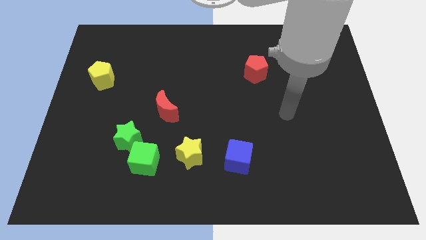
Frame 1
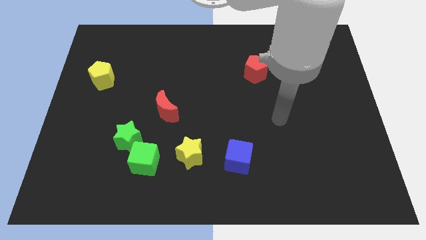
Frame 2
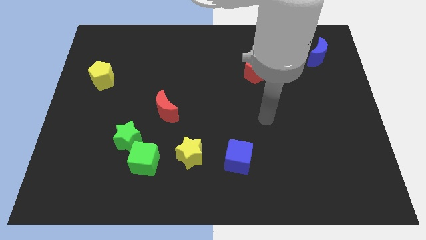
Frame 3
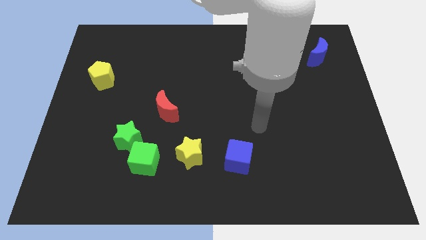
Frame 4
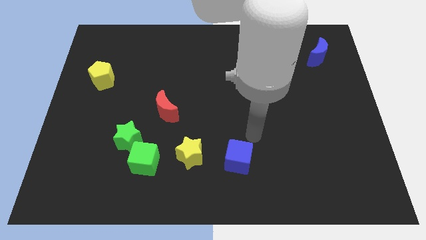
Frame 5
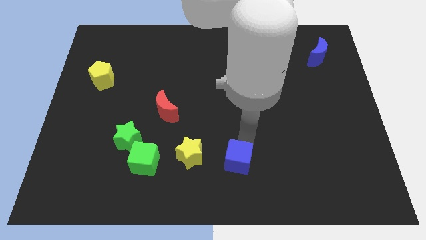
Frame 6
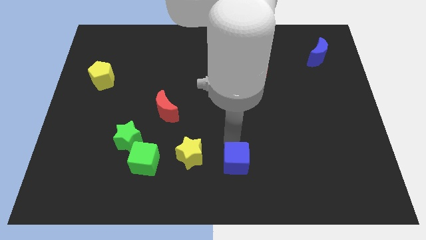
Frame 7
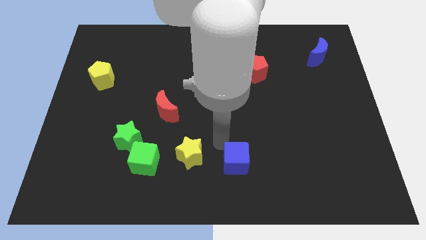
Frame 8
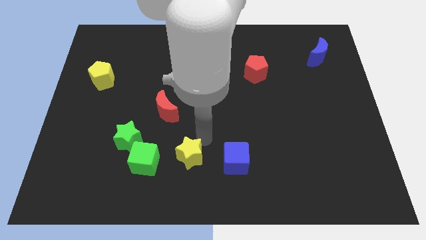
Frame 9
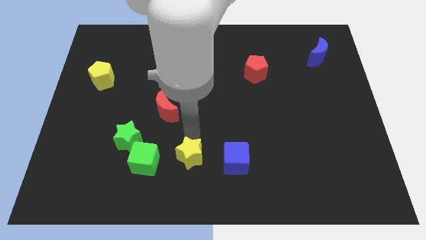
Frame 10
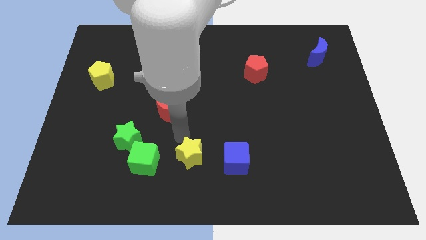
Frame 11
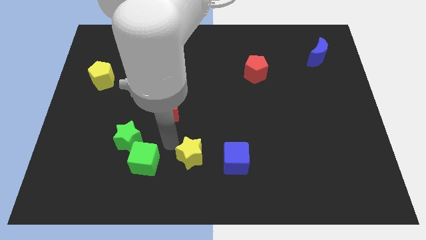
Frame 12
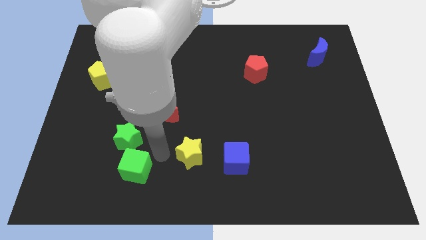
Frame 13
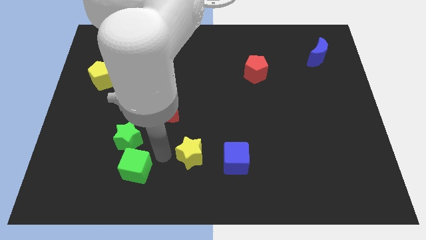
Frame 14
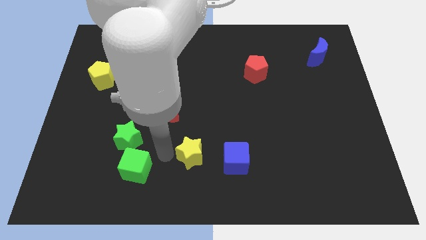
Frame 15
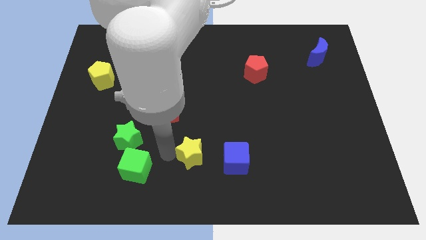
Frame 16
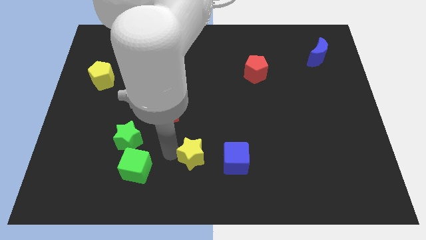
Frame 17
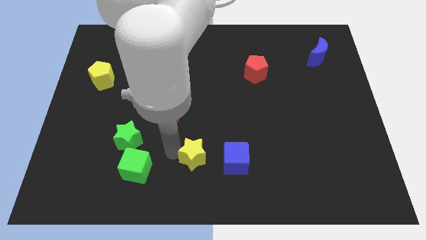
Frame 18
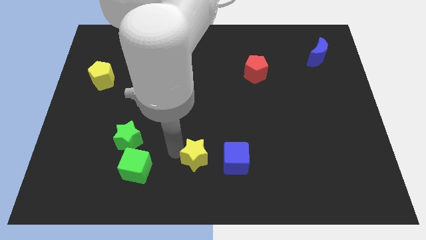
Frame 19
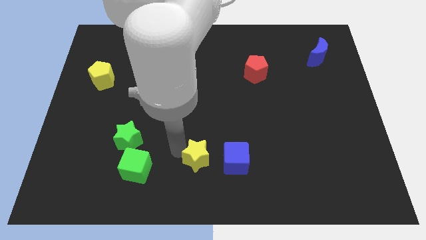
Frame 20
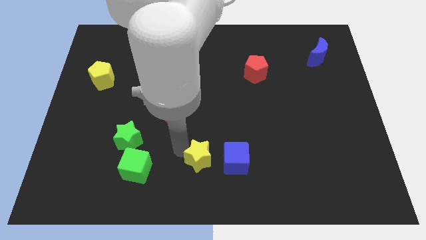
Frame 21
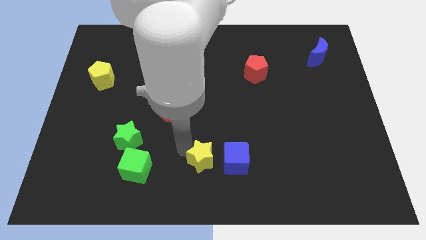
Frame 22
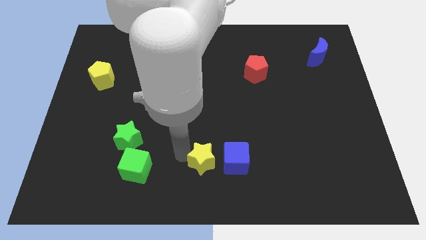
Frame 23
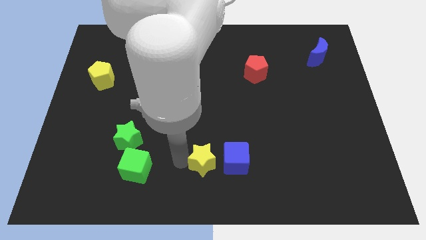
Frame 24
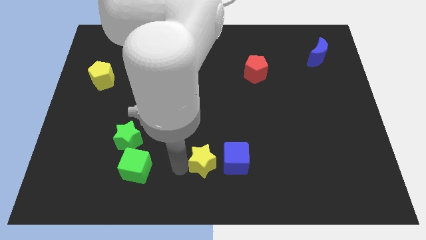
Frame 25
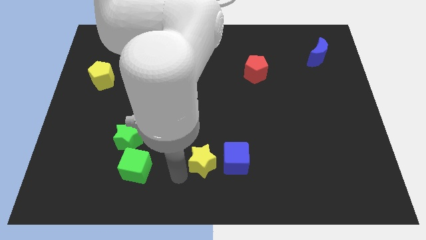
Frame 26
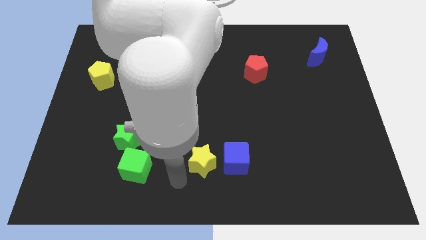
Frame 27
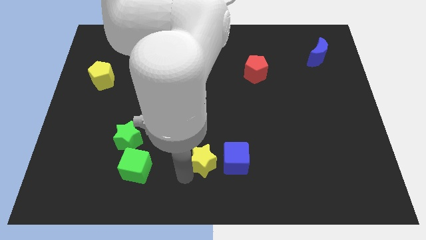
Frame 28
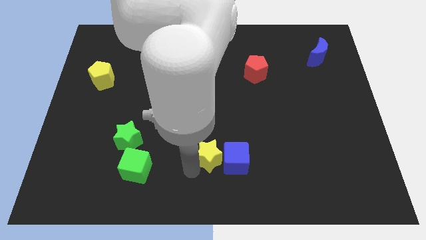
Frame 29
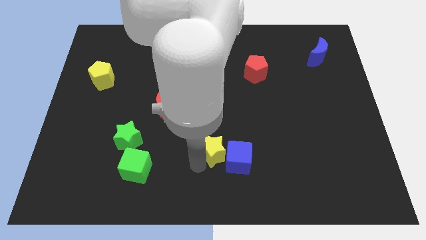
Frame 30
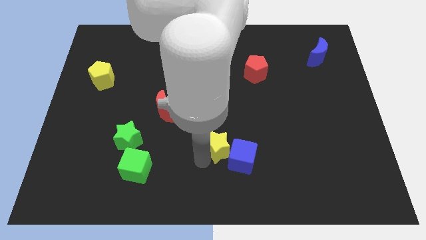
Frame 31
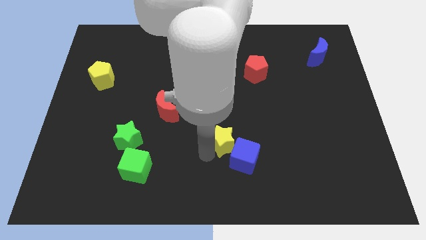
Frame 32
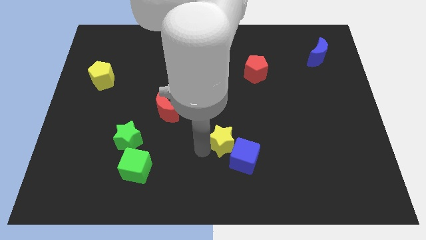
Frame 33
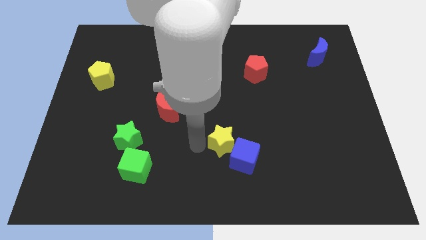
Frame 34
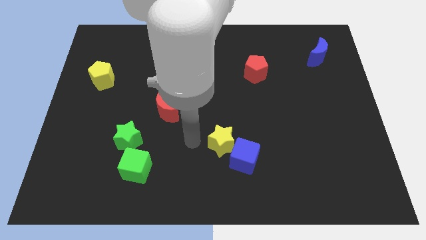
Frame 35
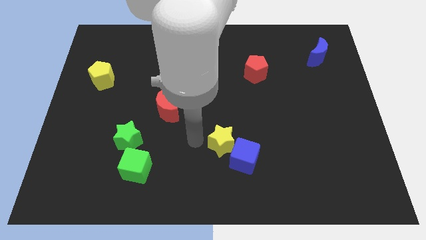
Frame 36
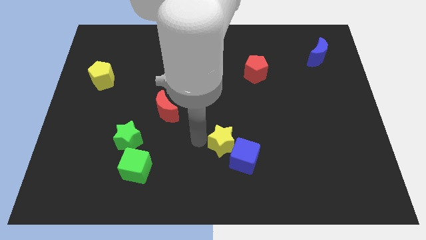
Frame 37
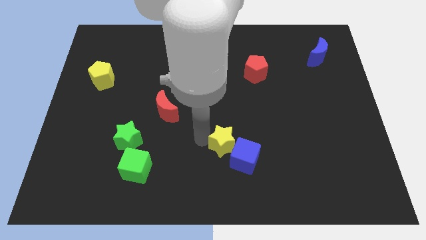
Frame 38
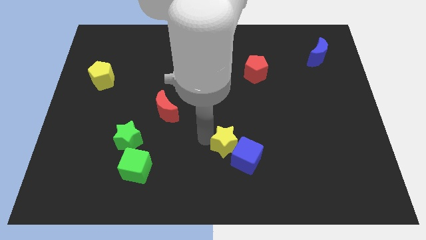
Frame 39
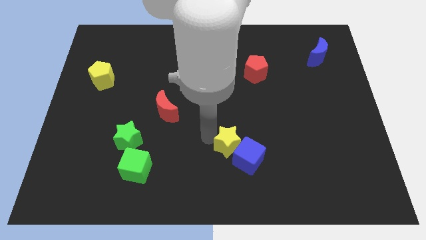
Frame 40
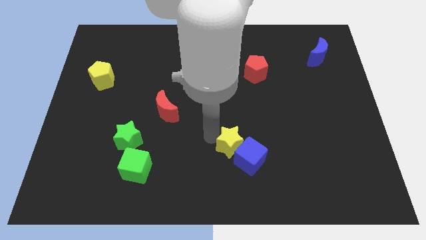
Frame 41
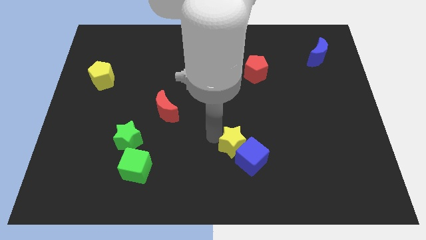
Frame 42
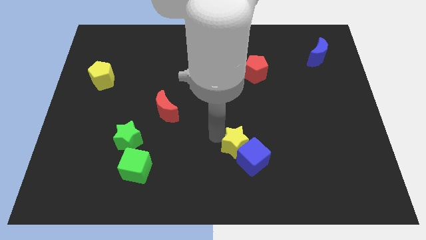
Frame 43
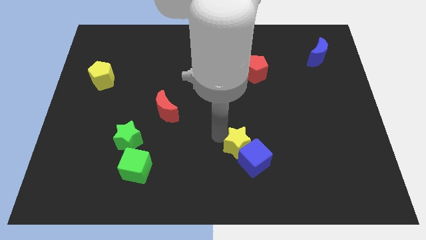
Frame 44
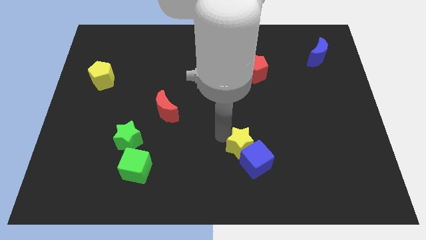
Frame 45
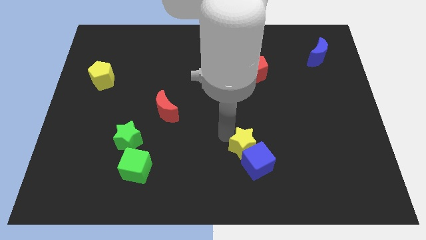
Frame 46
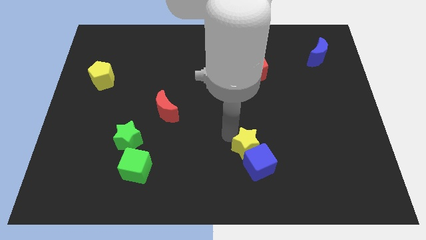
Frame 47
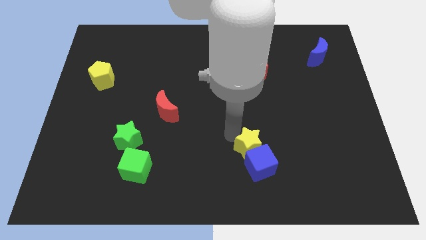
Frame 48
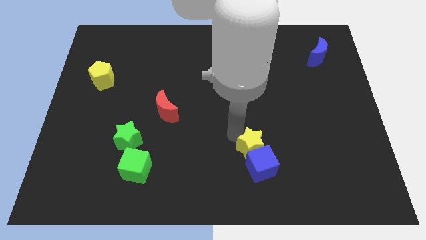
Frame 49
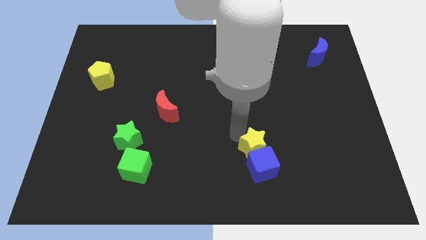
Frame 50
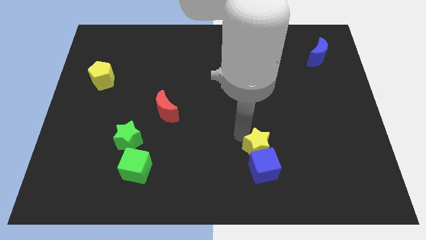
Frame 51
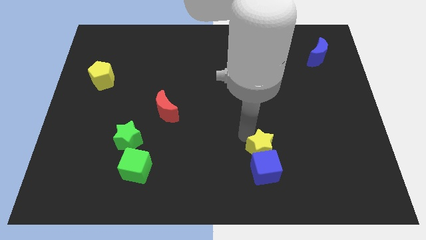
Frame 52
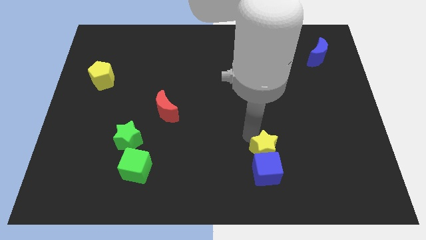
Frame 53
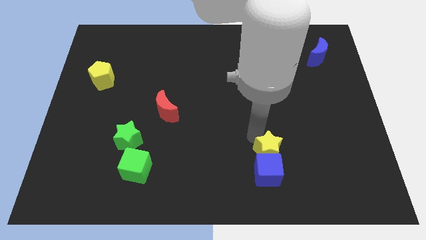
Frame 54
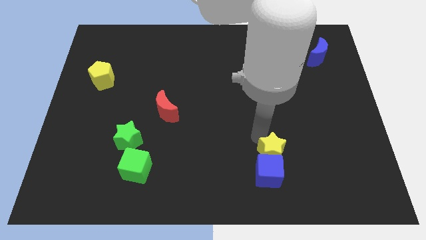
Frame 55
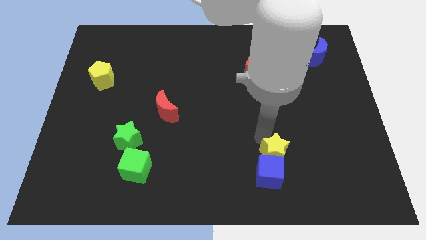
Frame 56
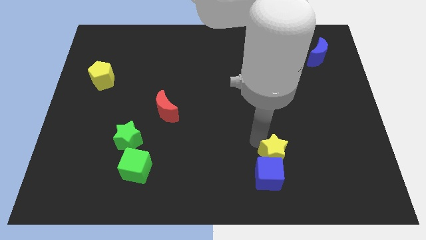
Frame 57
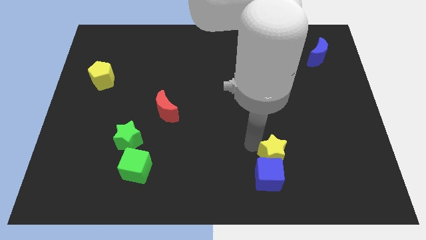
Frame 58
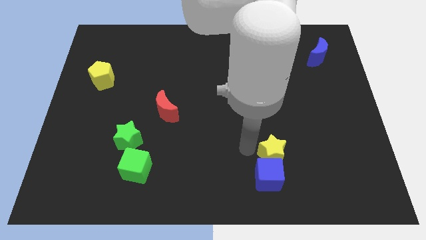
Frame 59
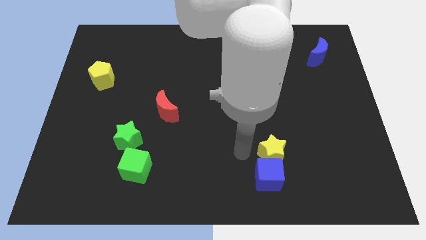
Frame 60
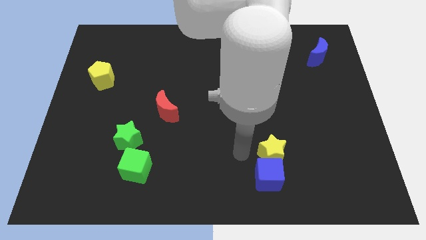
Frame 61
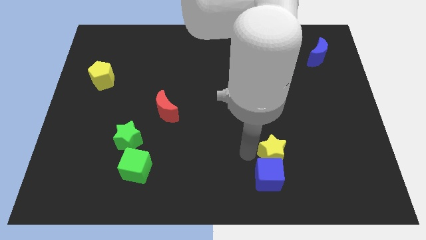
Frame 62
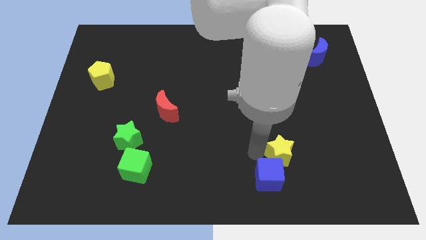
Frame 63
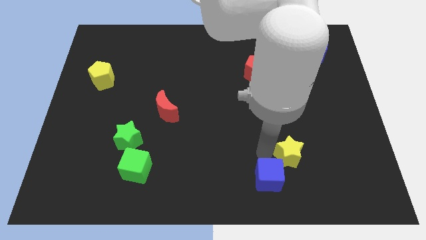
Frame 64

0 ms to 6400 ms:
move the yellow star to the right

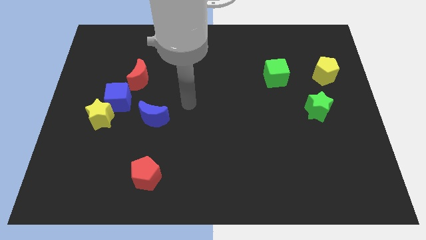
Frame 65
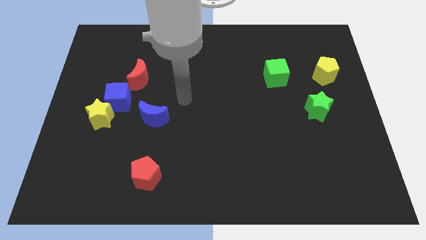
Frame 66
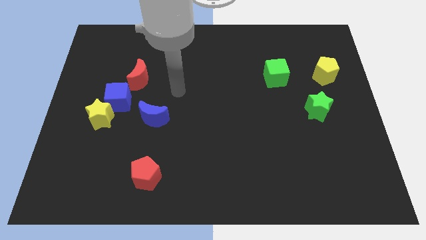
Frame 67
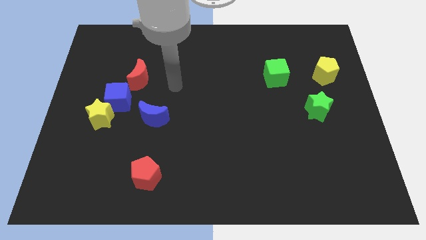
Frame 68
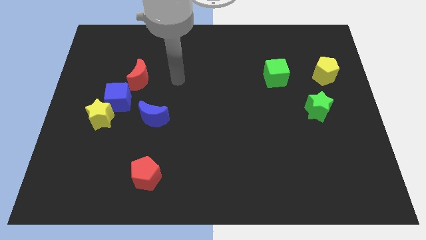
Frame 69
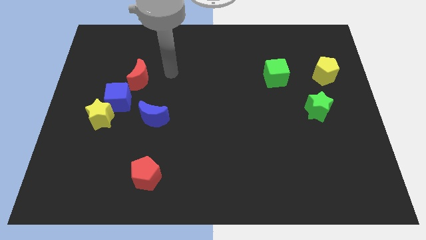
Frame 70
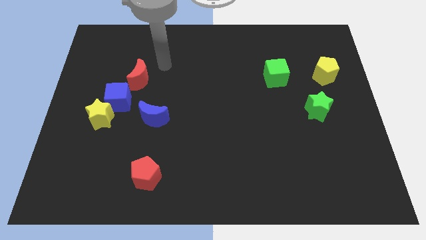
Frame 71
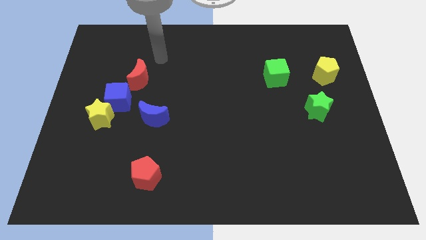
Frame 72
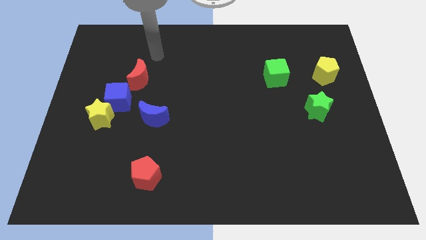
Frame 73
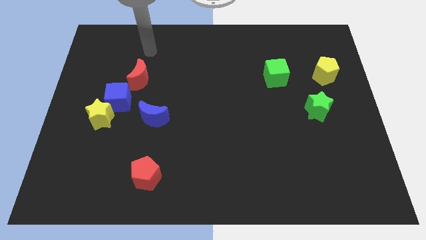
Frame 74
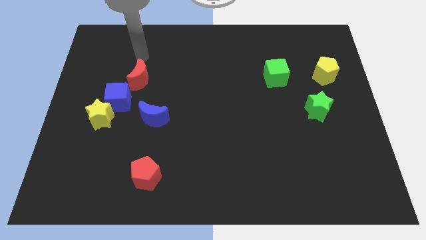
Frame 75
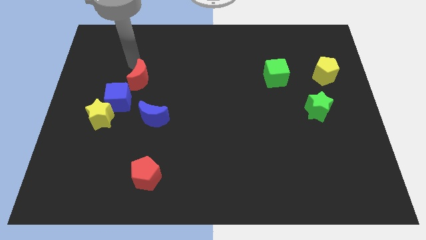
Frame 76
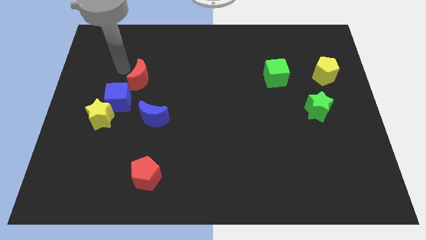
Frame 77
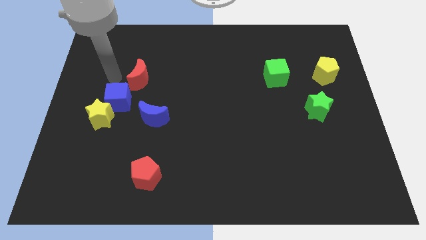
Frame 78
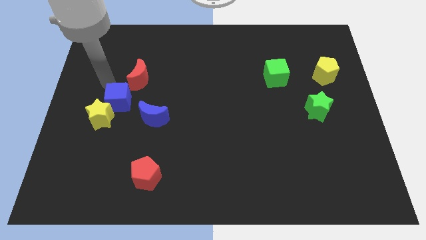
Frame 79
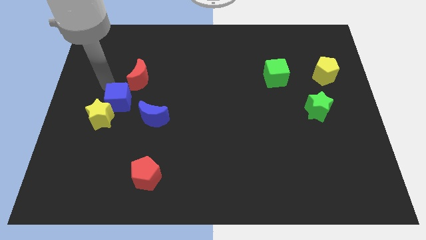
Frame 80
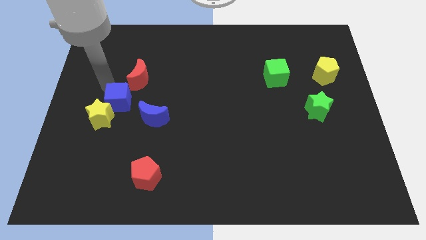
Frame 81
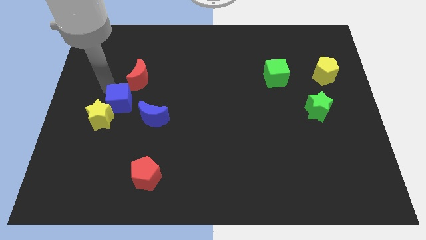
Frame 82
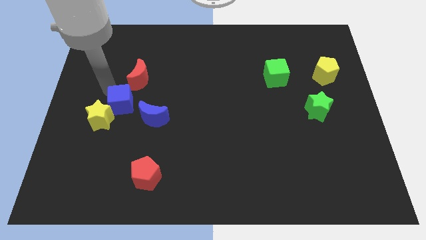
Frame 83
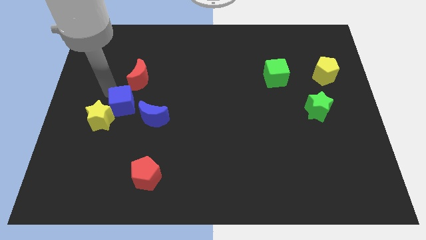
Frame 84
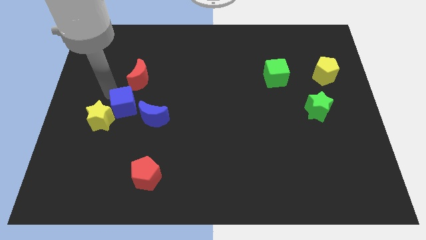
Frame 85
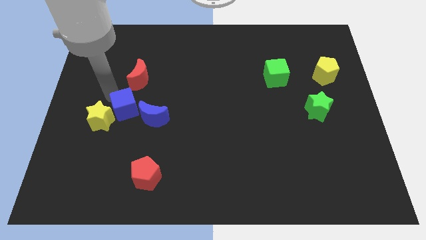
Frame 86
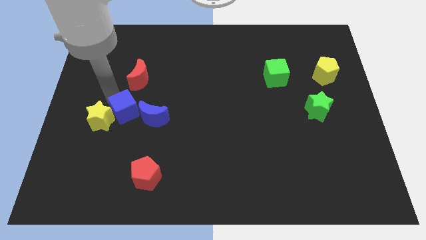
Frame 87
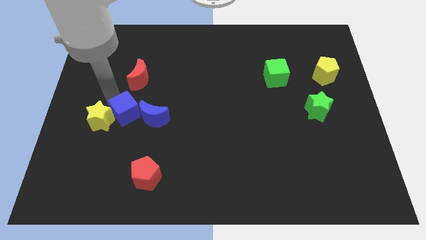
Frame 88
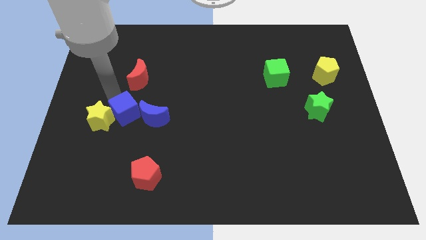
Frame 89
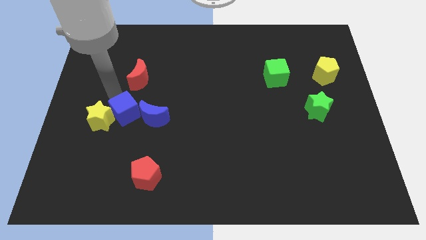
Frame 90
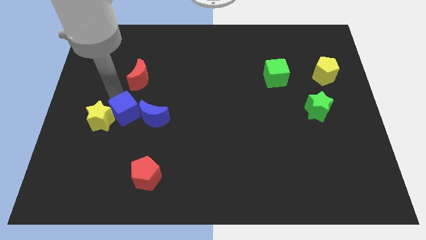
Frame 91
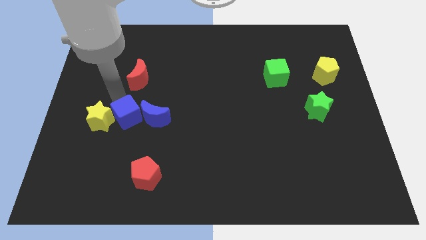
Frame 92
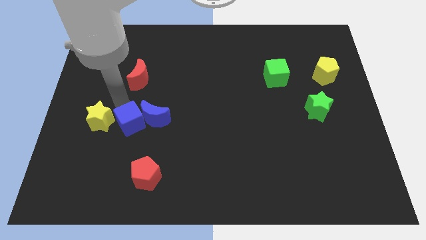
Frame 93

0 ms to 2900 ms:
push the blue cube somewhat down and right diagonally
